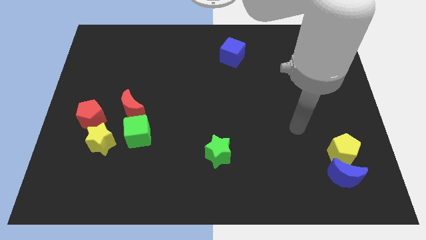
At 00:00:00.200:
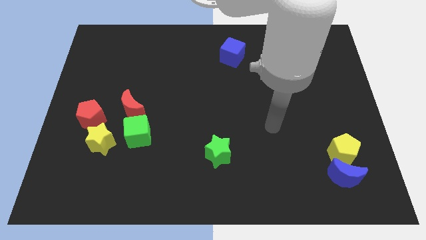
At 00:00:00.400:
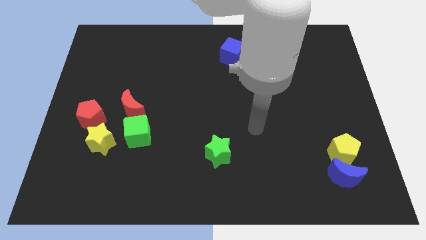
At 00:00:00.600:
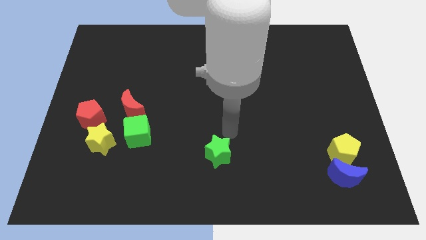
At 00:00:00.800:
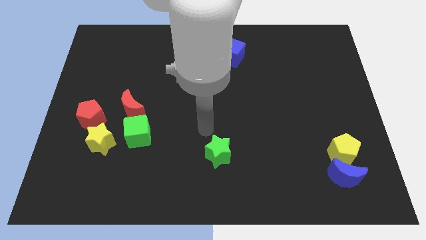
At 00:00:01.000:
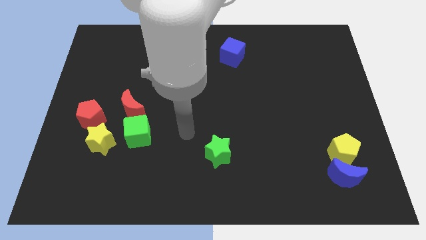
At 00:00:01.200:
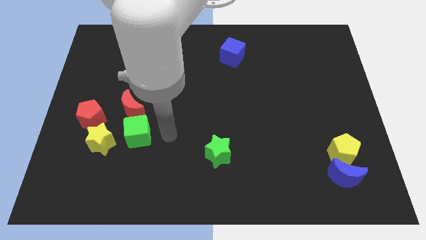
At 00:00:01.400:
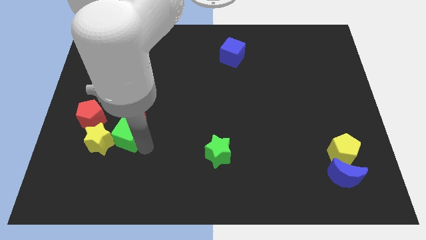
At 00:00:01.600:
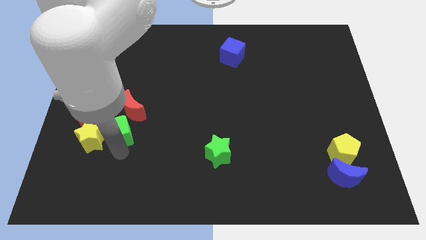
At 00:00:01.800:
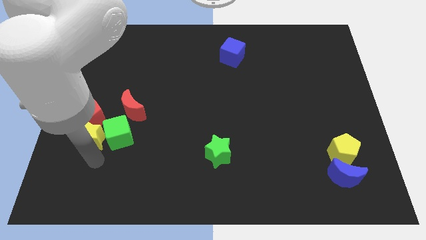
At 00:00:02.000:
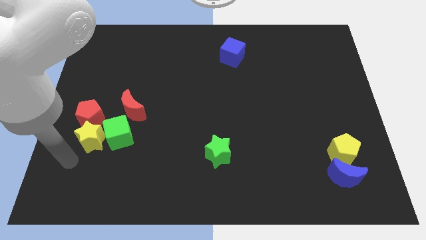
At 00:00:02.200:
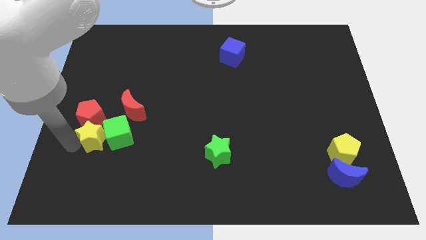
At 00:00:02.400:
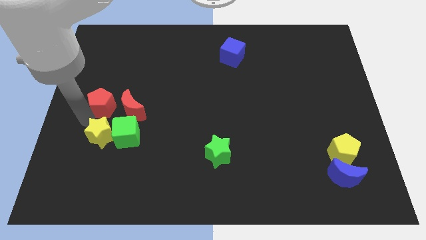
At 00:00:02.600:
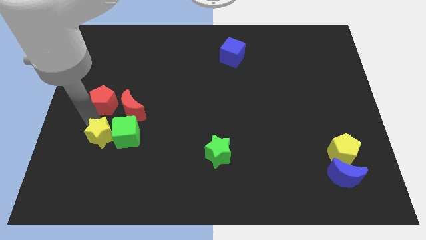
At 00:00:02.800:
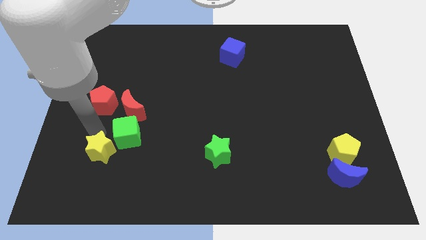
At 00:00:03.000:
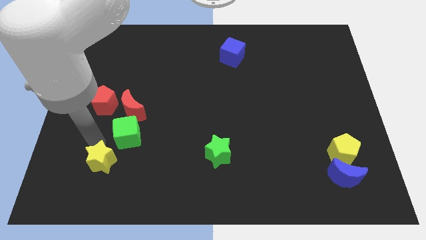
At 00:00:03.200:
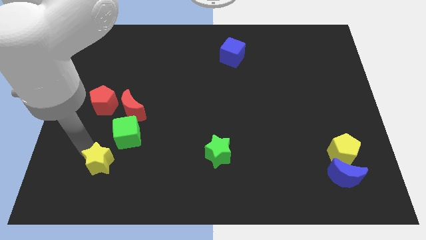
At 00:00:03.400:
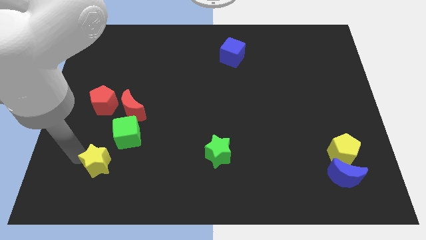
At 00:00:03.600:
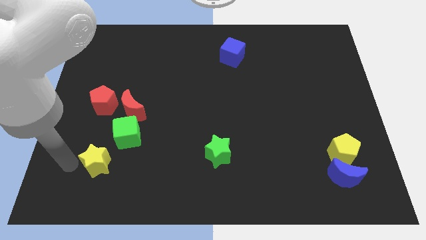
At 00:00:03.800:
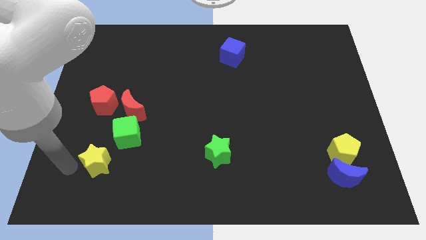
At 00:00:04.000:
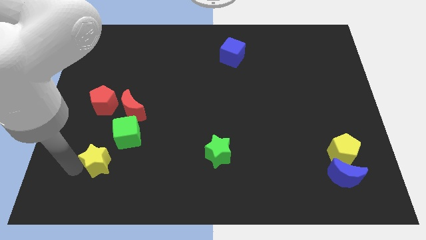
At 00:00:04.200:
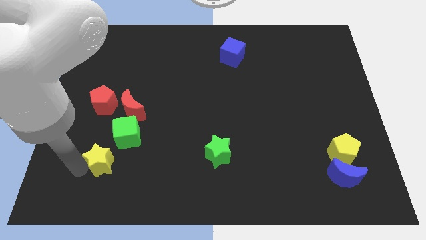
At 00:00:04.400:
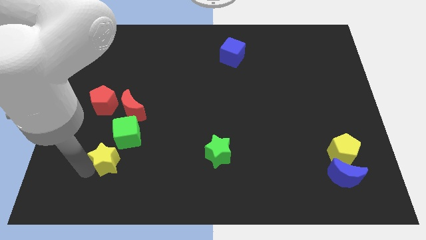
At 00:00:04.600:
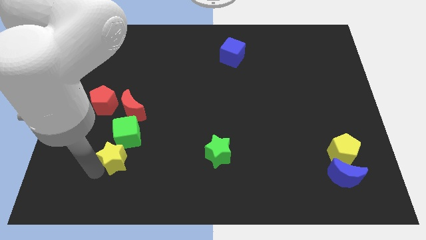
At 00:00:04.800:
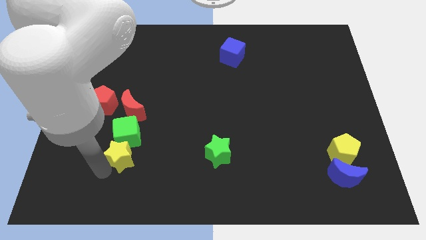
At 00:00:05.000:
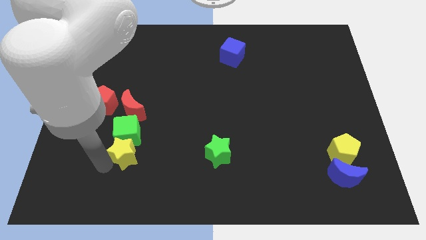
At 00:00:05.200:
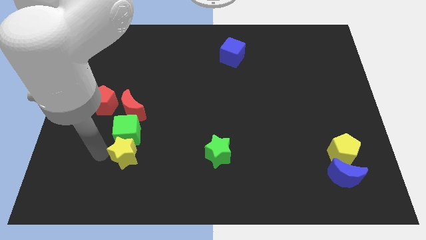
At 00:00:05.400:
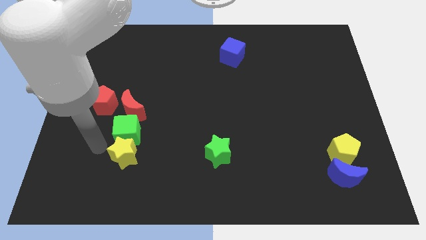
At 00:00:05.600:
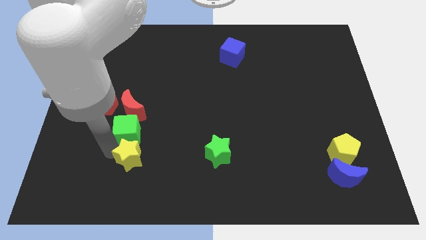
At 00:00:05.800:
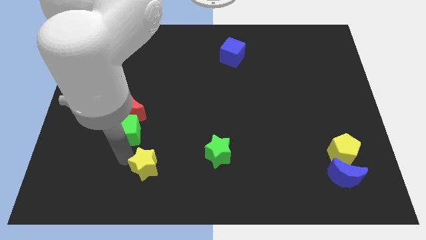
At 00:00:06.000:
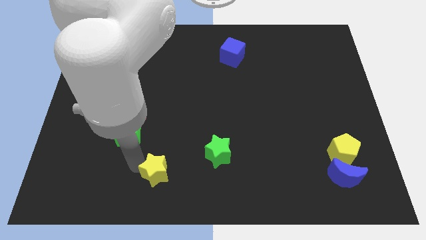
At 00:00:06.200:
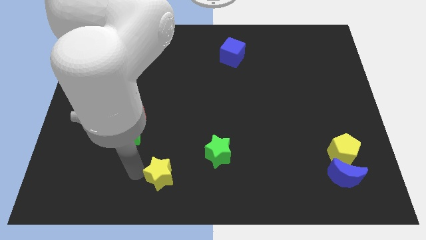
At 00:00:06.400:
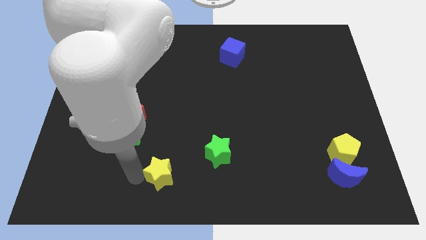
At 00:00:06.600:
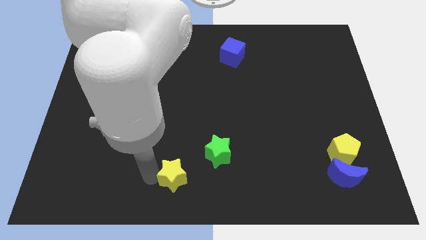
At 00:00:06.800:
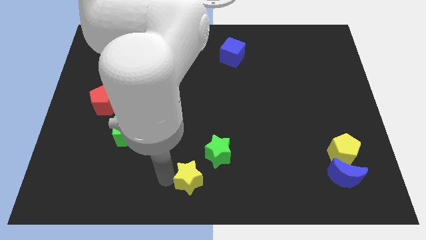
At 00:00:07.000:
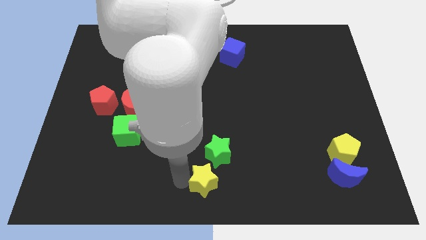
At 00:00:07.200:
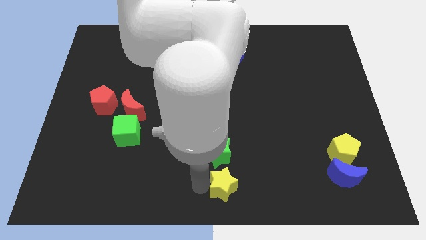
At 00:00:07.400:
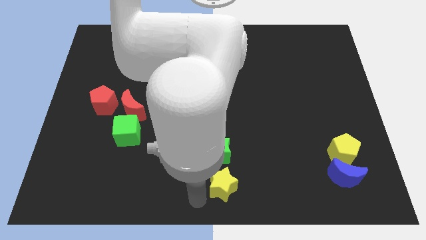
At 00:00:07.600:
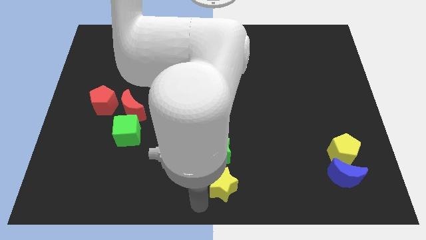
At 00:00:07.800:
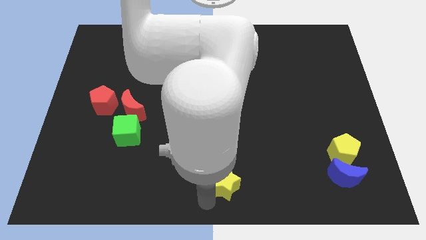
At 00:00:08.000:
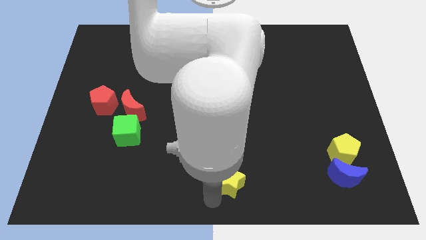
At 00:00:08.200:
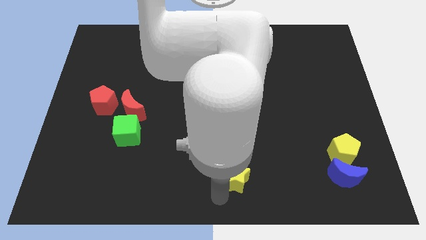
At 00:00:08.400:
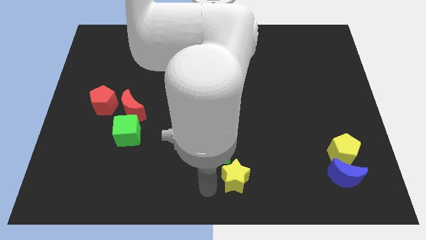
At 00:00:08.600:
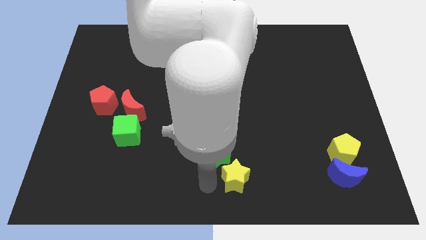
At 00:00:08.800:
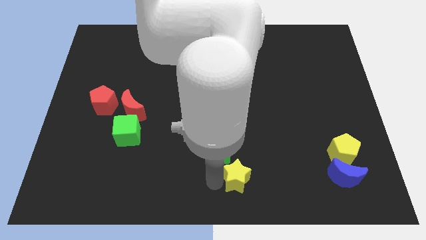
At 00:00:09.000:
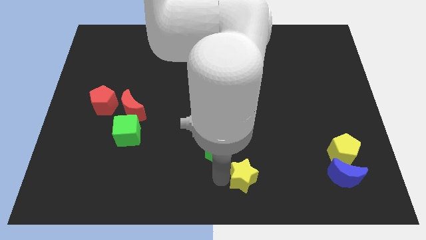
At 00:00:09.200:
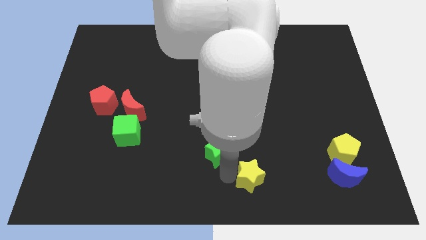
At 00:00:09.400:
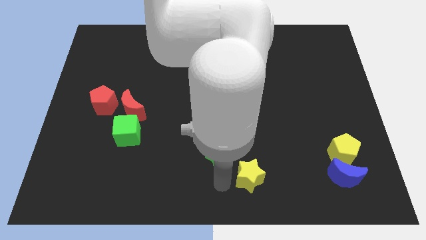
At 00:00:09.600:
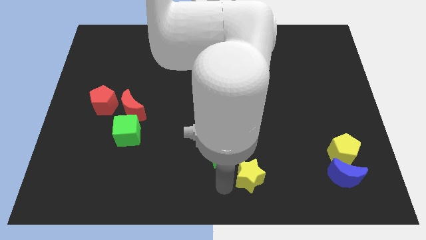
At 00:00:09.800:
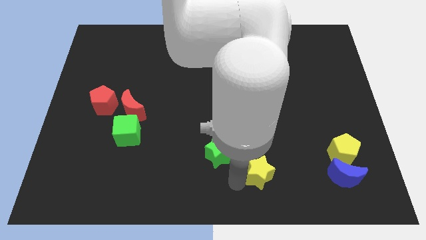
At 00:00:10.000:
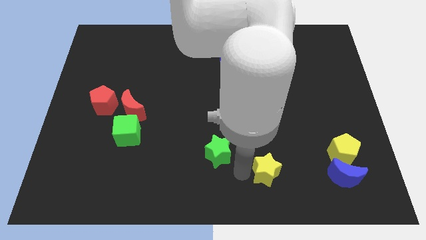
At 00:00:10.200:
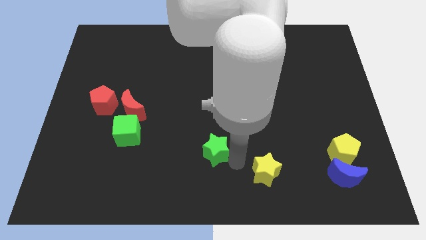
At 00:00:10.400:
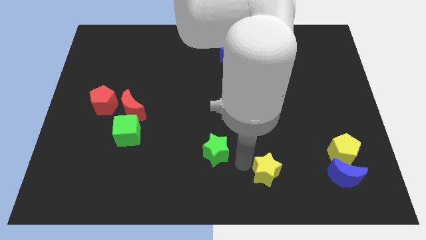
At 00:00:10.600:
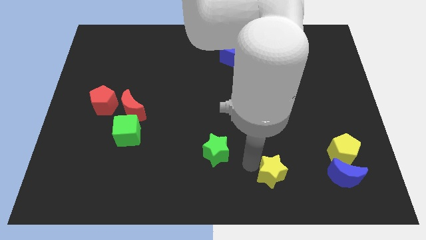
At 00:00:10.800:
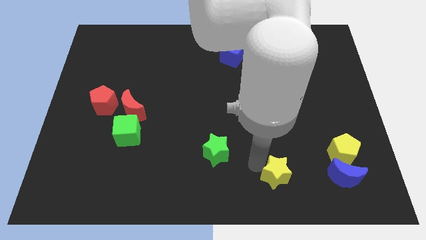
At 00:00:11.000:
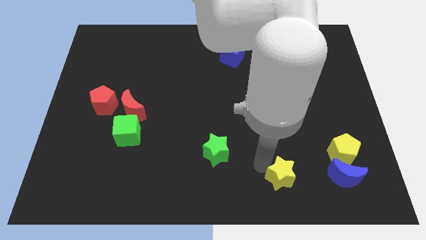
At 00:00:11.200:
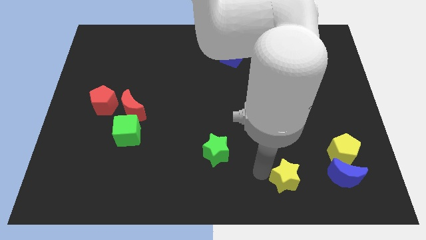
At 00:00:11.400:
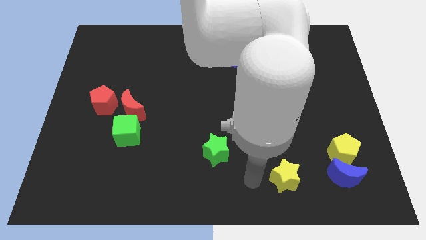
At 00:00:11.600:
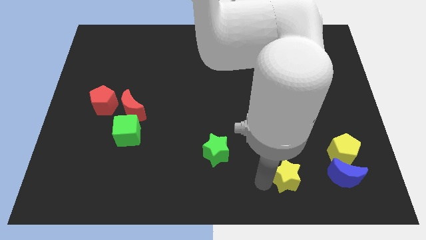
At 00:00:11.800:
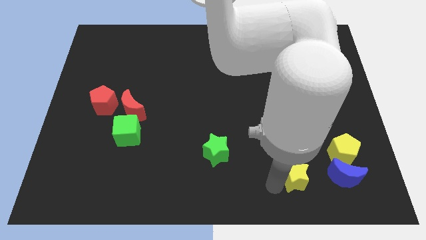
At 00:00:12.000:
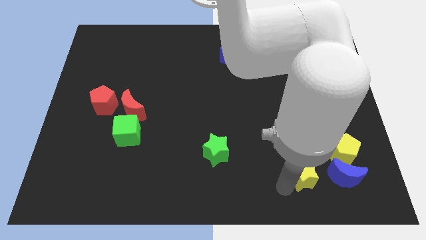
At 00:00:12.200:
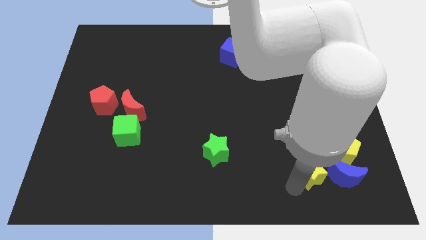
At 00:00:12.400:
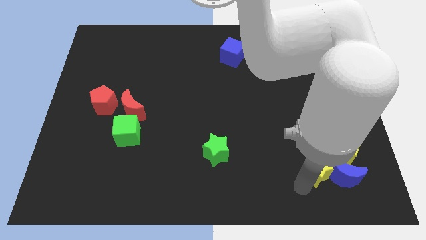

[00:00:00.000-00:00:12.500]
slide the yellow star next to the blue moon

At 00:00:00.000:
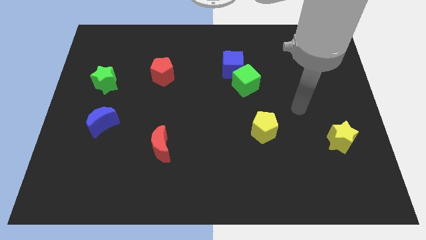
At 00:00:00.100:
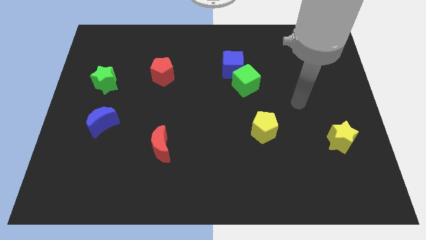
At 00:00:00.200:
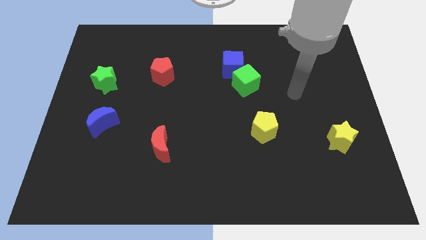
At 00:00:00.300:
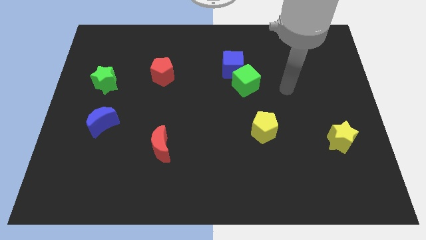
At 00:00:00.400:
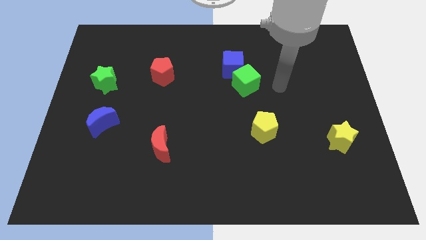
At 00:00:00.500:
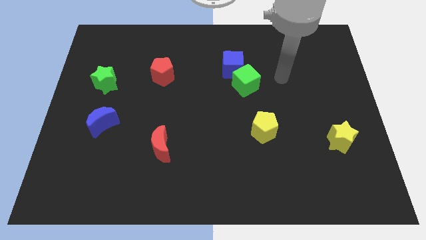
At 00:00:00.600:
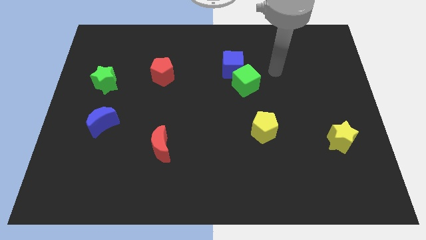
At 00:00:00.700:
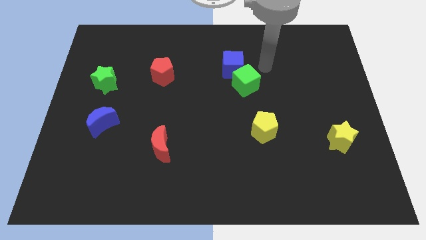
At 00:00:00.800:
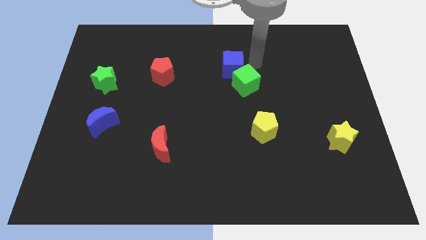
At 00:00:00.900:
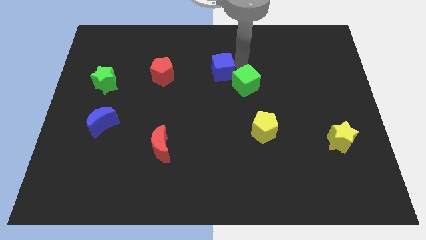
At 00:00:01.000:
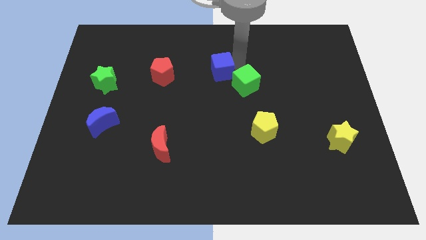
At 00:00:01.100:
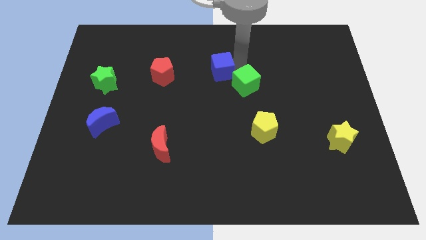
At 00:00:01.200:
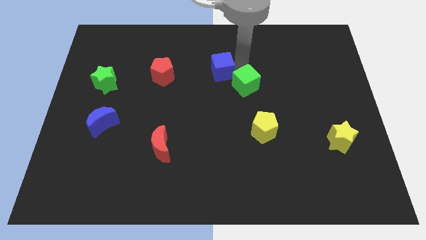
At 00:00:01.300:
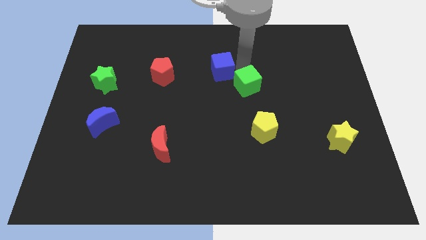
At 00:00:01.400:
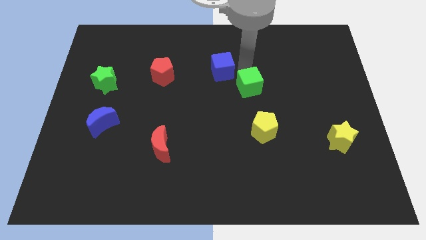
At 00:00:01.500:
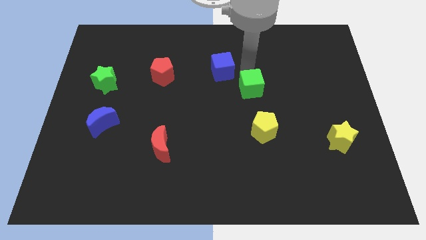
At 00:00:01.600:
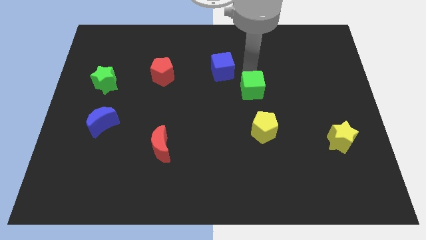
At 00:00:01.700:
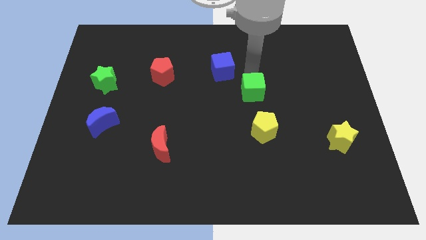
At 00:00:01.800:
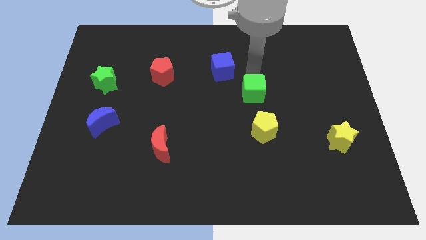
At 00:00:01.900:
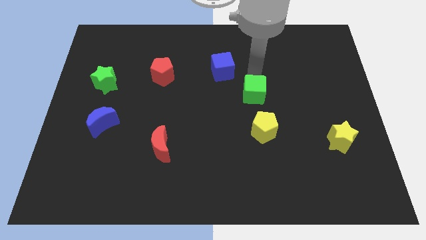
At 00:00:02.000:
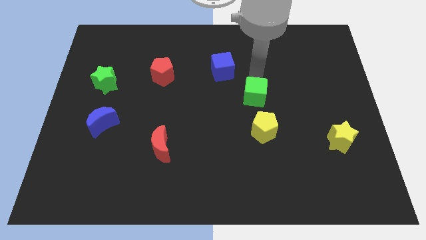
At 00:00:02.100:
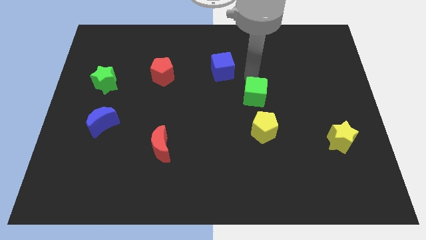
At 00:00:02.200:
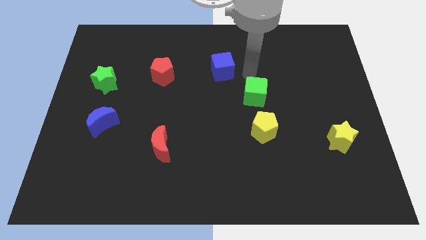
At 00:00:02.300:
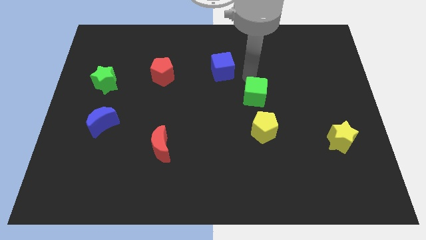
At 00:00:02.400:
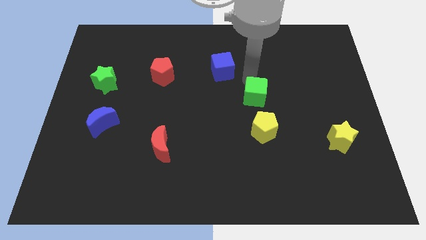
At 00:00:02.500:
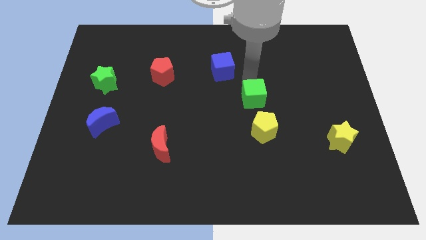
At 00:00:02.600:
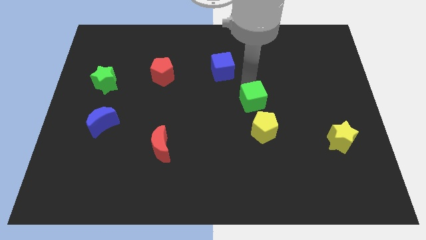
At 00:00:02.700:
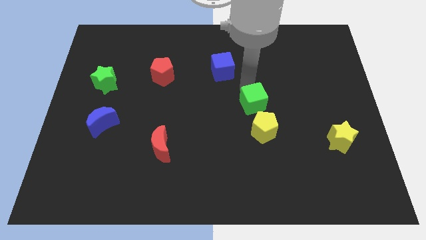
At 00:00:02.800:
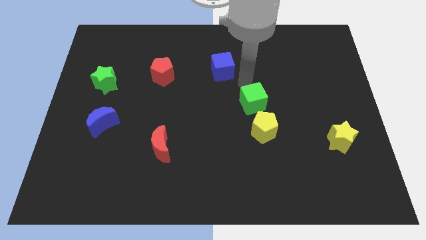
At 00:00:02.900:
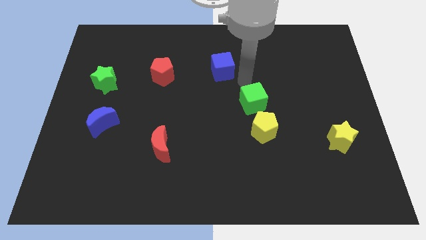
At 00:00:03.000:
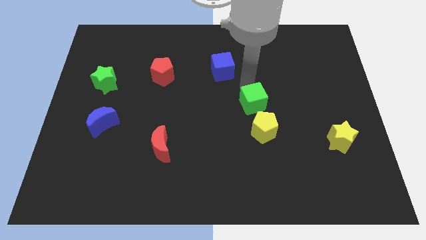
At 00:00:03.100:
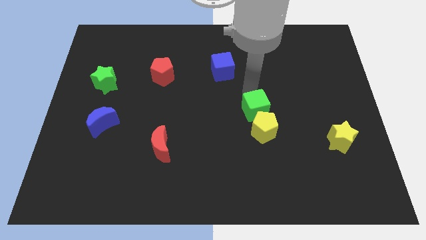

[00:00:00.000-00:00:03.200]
slide the green cube next to the yellow pentagon
